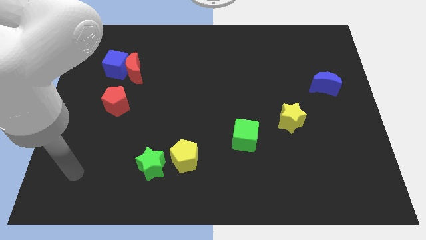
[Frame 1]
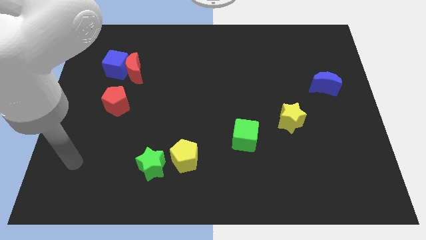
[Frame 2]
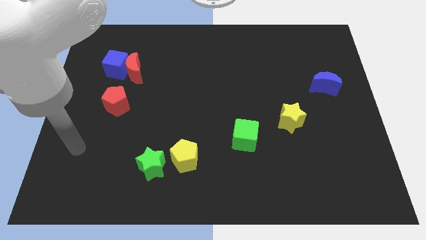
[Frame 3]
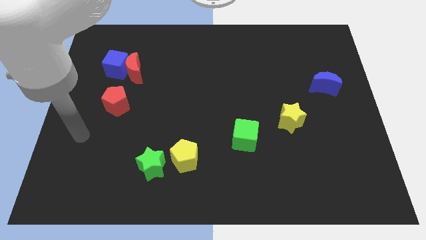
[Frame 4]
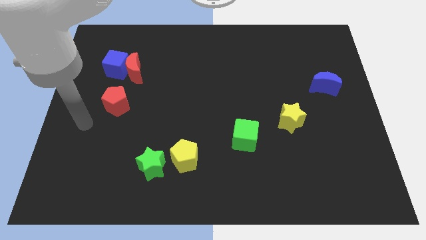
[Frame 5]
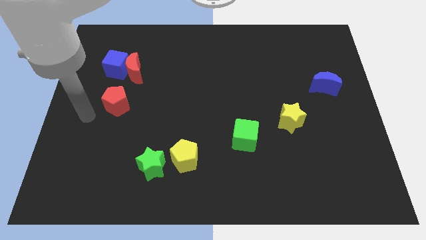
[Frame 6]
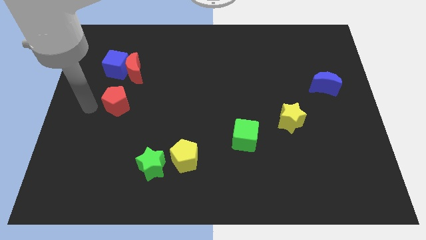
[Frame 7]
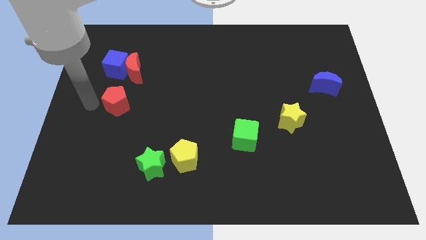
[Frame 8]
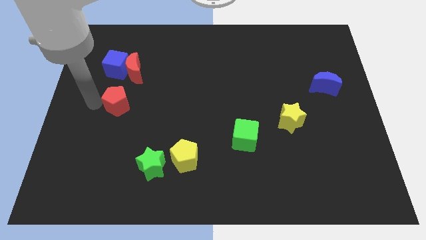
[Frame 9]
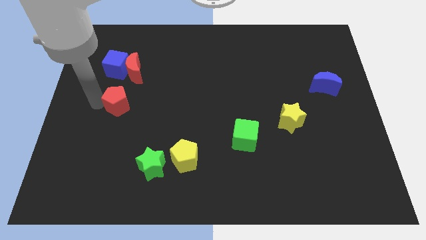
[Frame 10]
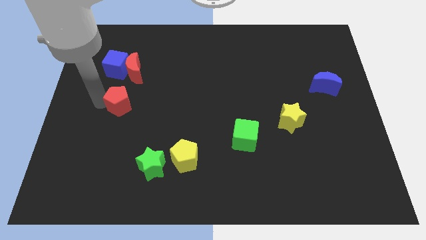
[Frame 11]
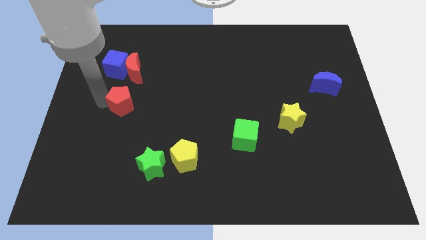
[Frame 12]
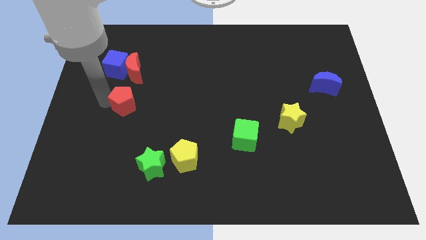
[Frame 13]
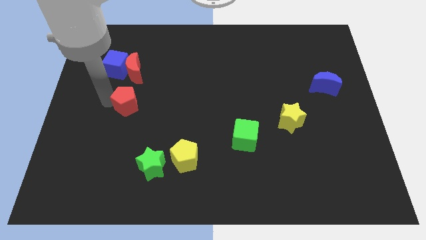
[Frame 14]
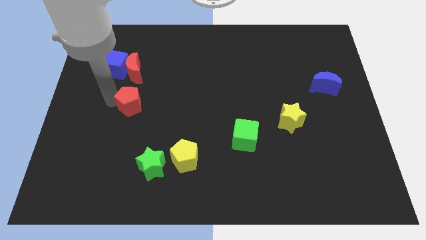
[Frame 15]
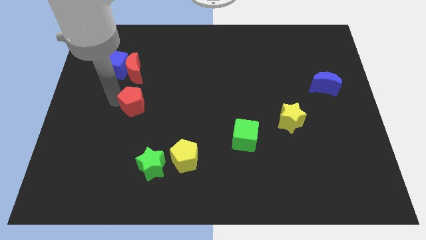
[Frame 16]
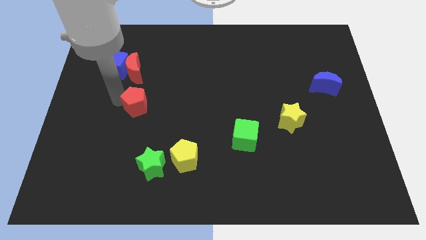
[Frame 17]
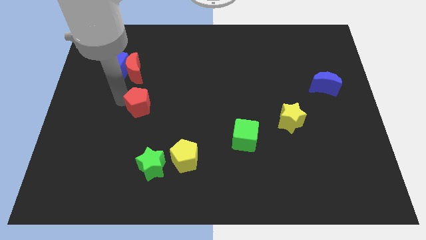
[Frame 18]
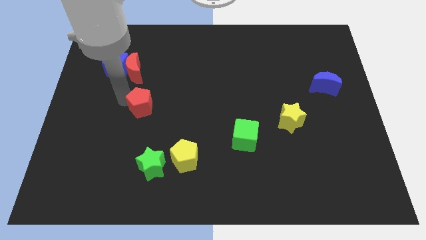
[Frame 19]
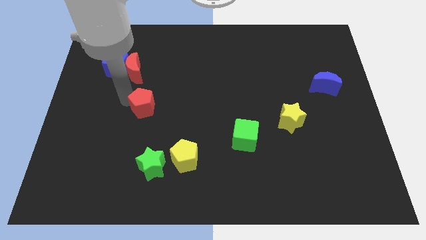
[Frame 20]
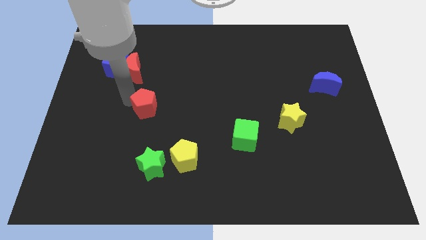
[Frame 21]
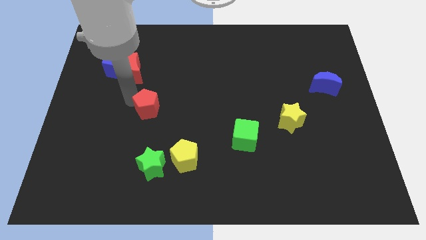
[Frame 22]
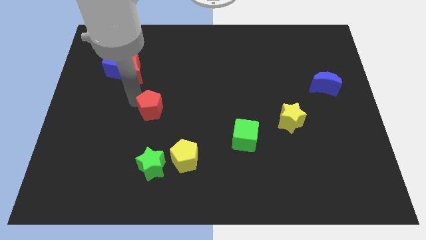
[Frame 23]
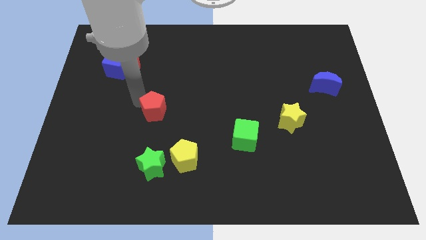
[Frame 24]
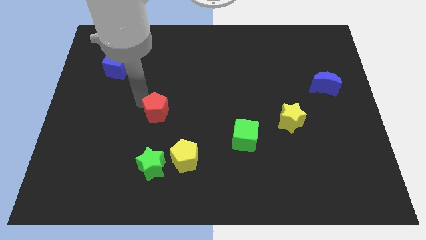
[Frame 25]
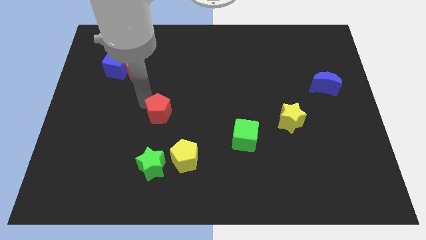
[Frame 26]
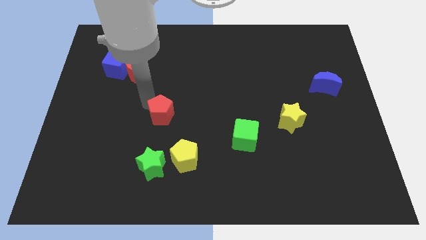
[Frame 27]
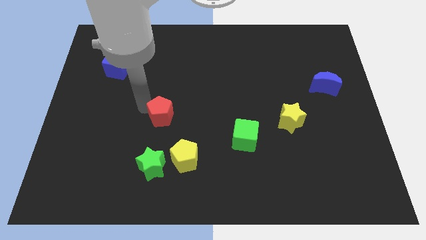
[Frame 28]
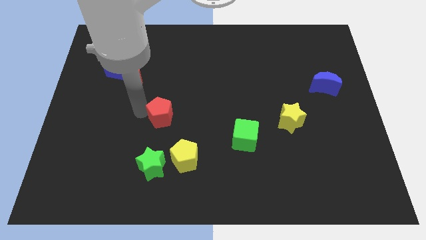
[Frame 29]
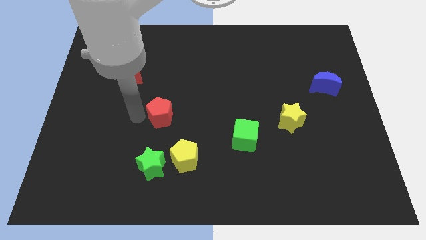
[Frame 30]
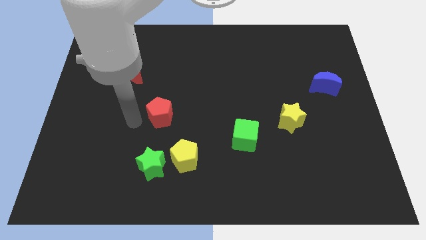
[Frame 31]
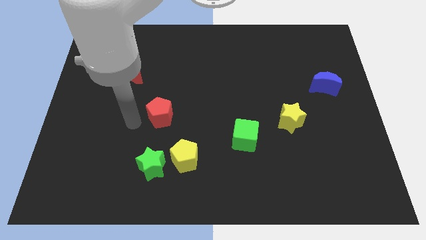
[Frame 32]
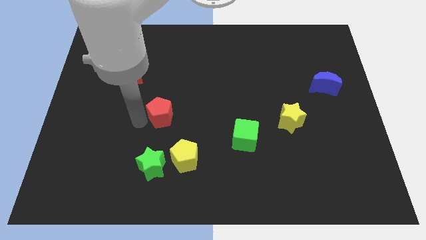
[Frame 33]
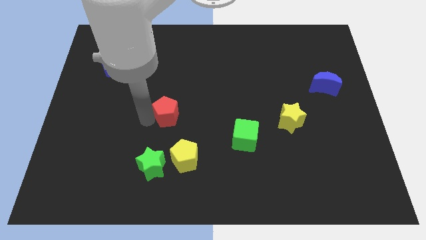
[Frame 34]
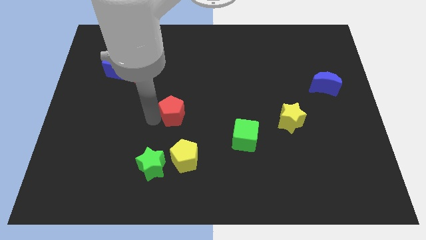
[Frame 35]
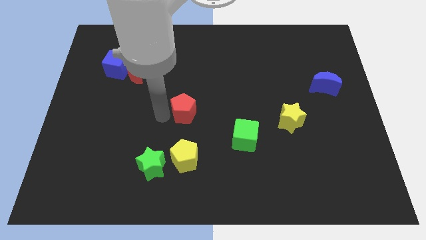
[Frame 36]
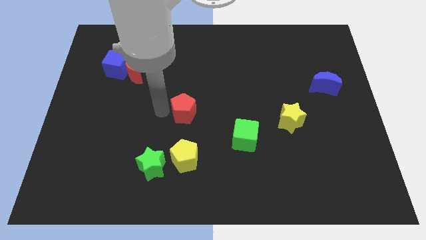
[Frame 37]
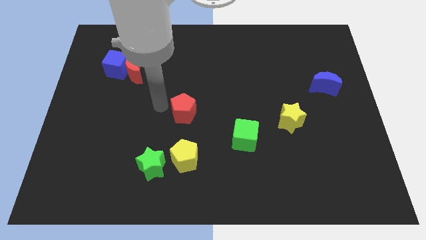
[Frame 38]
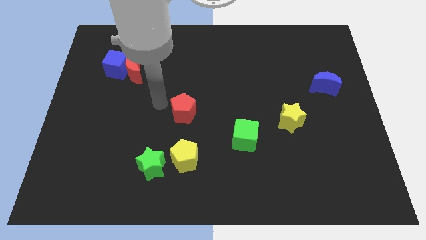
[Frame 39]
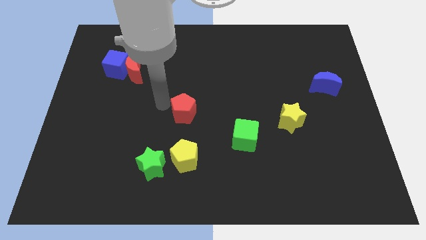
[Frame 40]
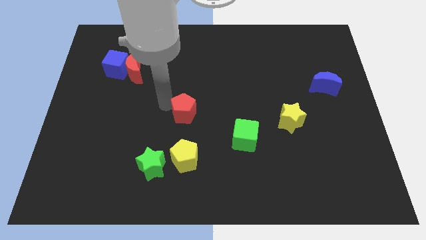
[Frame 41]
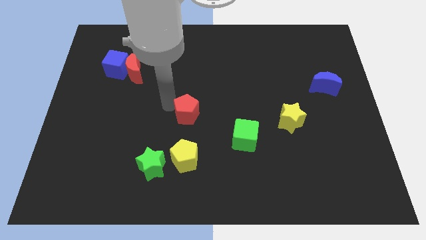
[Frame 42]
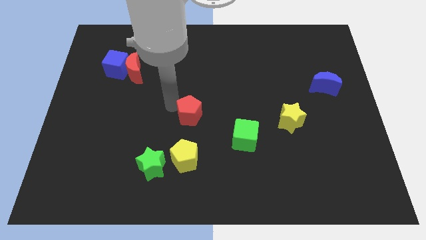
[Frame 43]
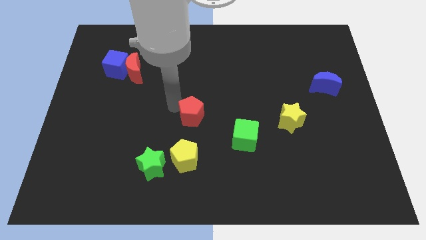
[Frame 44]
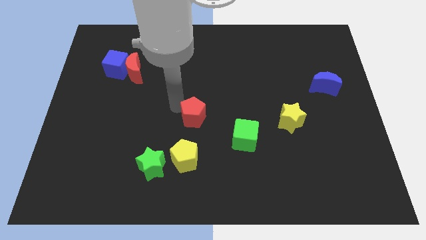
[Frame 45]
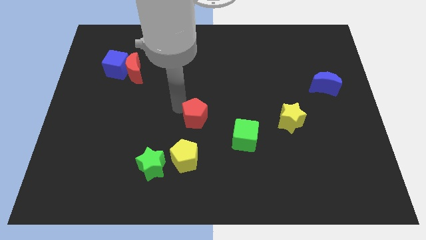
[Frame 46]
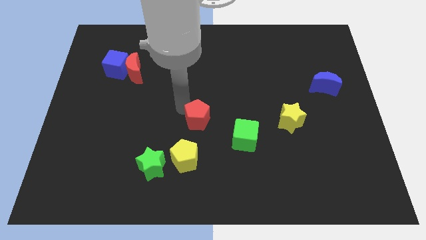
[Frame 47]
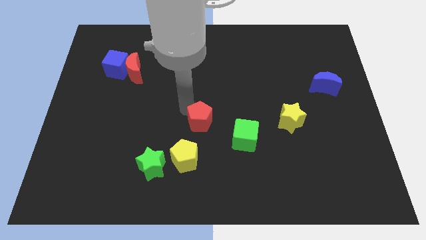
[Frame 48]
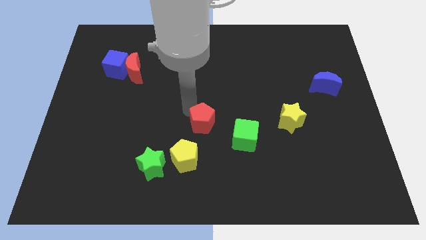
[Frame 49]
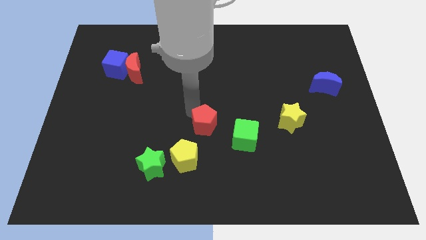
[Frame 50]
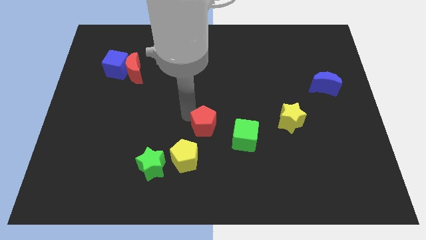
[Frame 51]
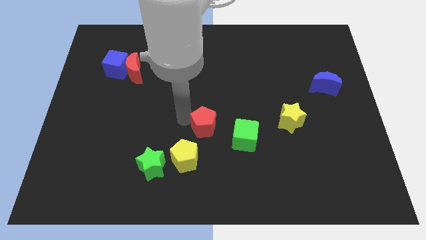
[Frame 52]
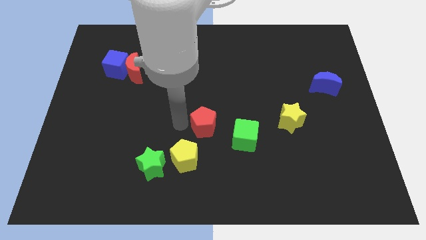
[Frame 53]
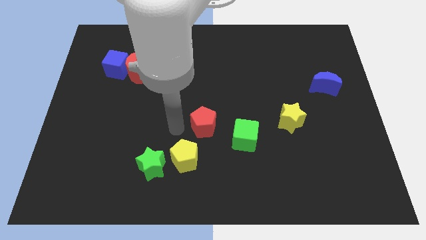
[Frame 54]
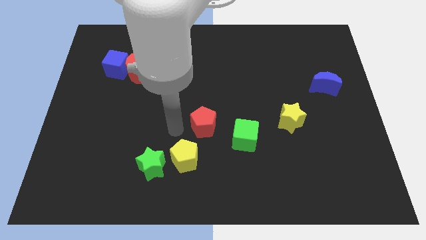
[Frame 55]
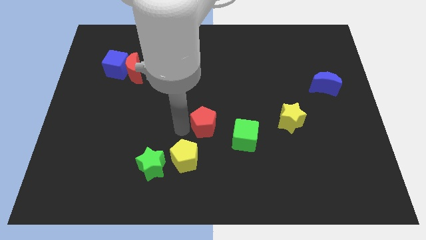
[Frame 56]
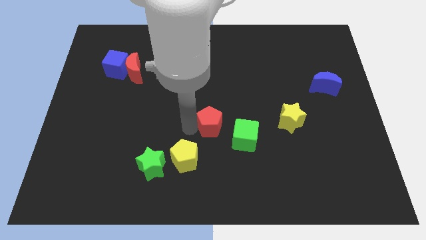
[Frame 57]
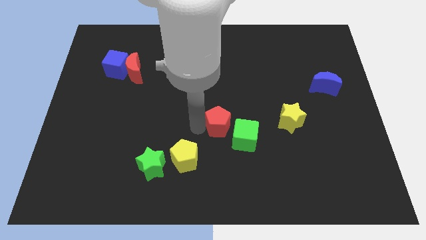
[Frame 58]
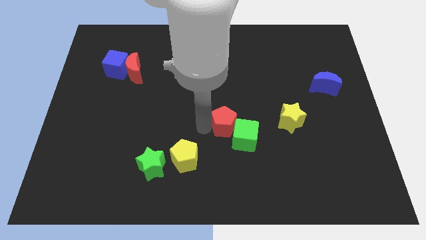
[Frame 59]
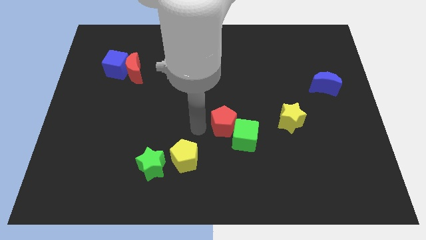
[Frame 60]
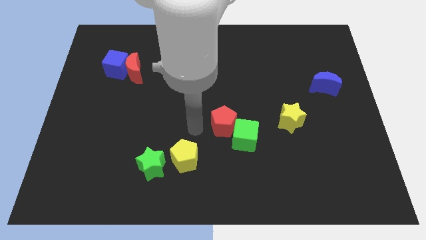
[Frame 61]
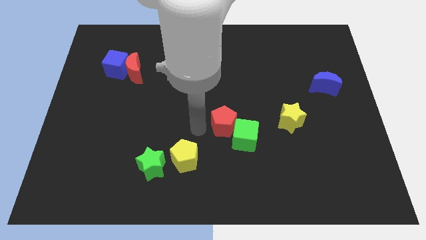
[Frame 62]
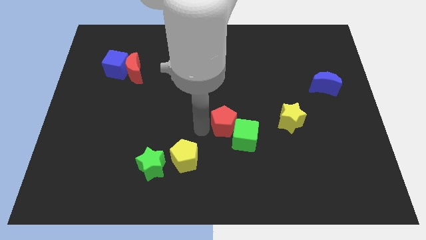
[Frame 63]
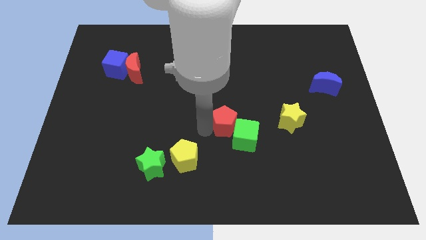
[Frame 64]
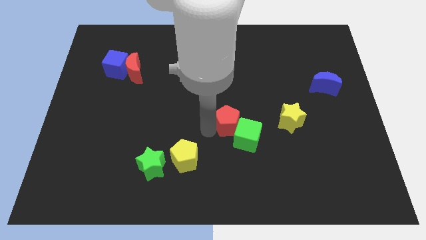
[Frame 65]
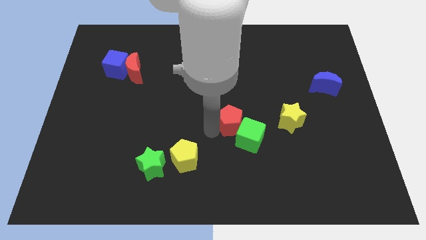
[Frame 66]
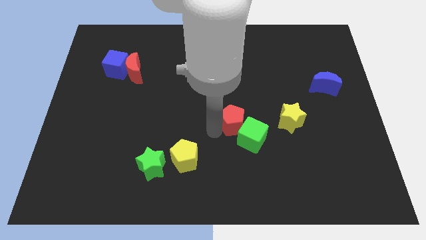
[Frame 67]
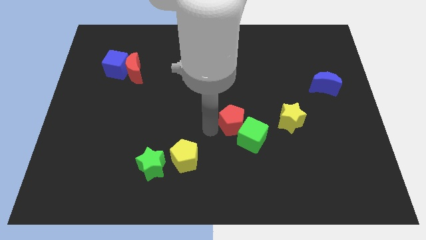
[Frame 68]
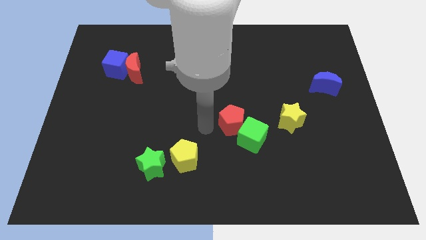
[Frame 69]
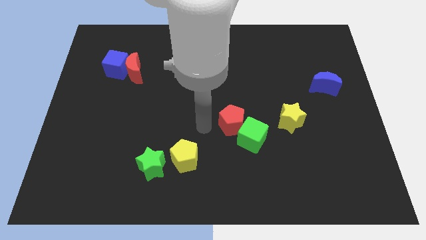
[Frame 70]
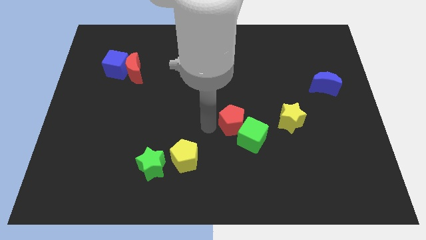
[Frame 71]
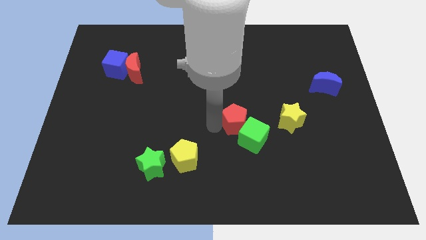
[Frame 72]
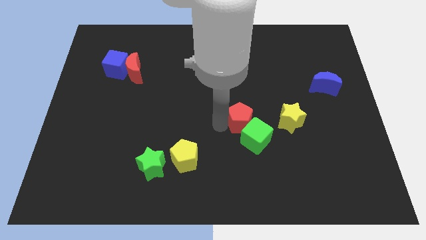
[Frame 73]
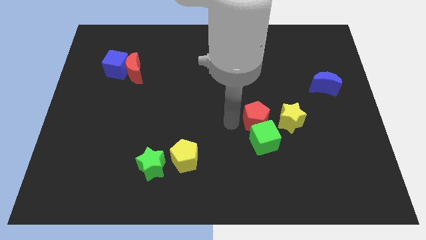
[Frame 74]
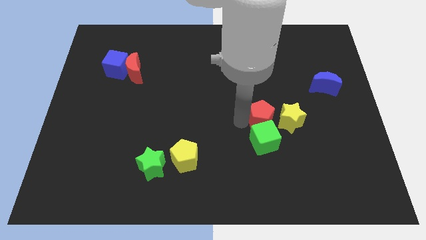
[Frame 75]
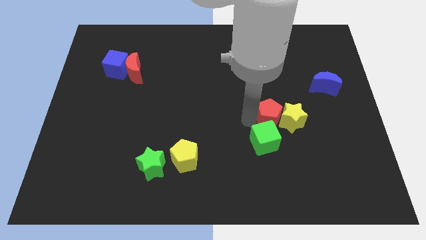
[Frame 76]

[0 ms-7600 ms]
slide the red pentagon next to the yellow star
